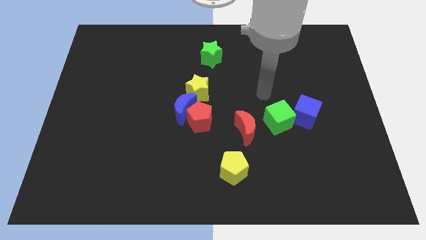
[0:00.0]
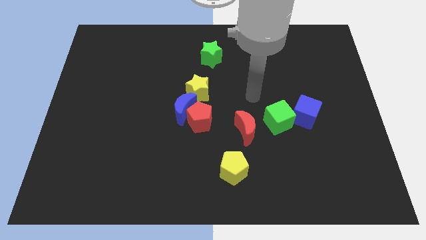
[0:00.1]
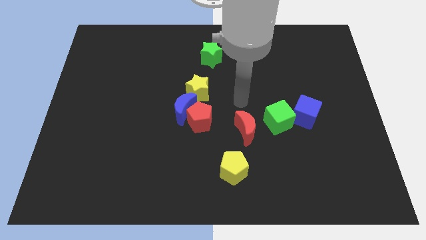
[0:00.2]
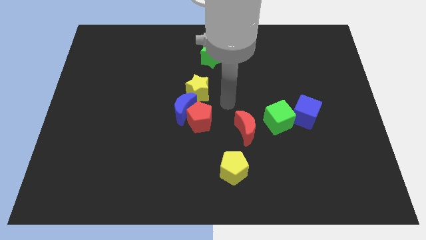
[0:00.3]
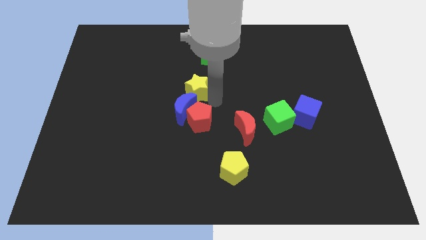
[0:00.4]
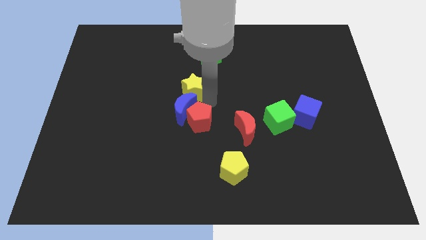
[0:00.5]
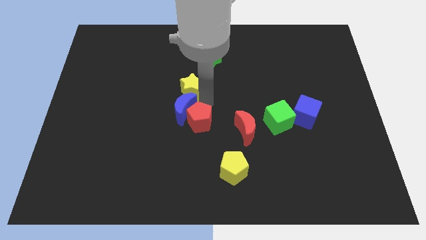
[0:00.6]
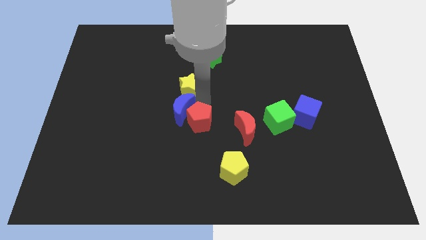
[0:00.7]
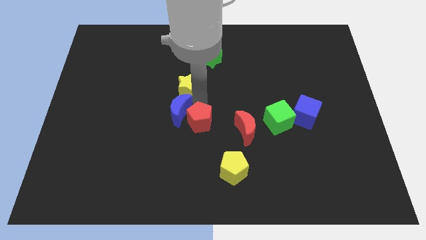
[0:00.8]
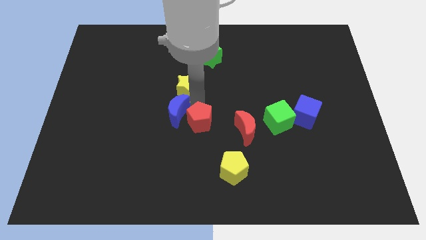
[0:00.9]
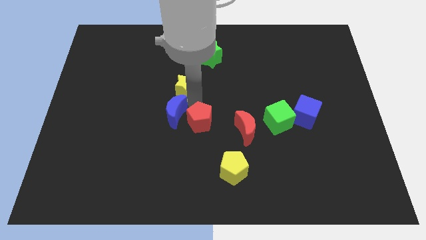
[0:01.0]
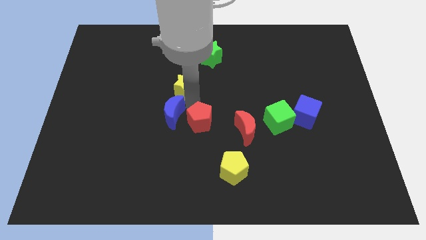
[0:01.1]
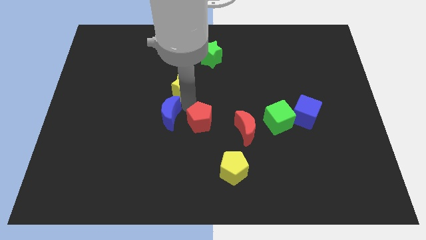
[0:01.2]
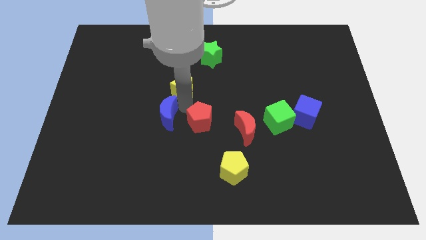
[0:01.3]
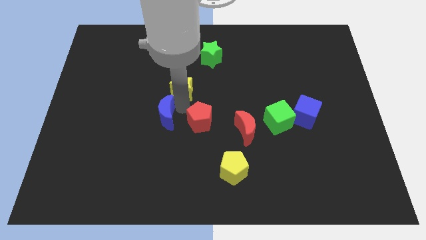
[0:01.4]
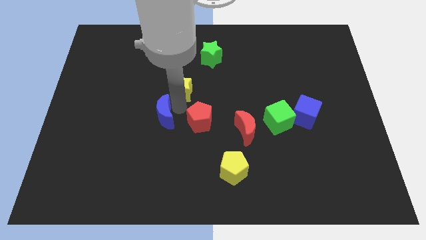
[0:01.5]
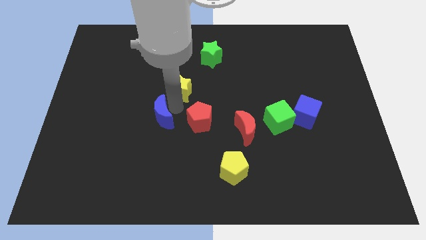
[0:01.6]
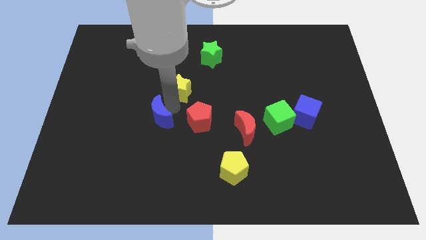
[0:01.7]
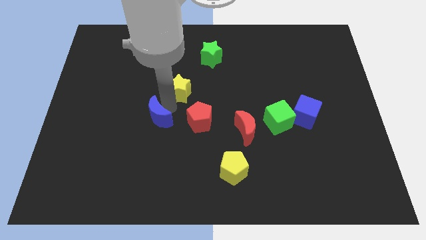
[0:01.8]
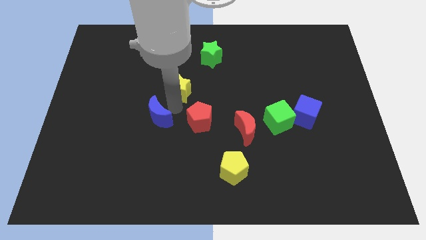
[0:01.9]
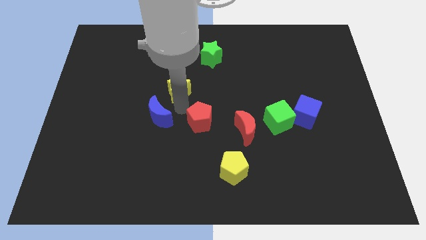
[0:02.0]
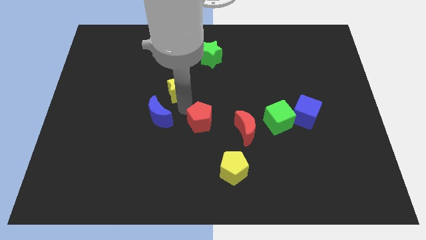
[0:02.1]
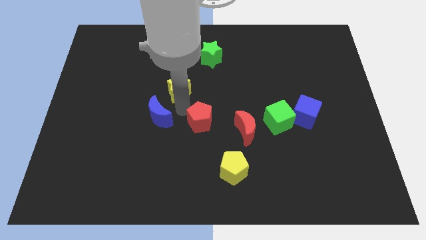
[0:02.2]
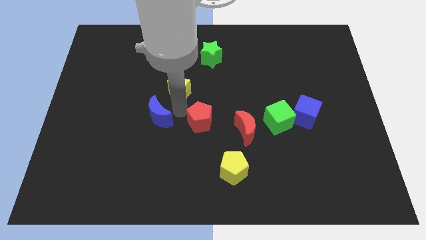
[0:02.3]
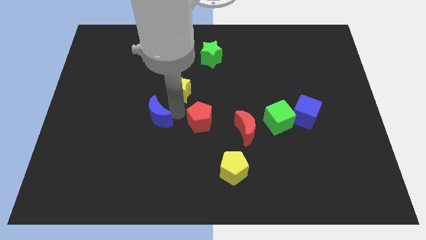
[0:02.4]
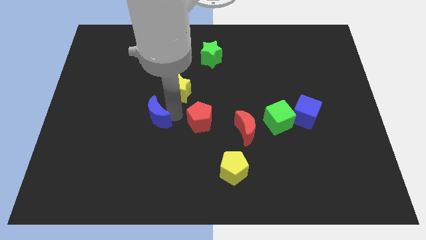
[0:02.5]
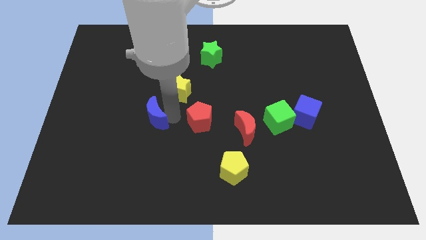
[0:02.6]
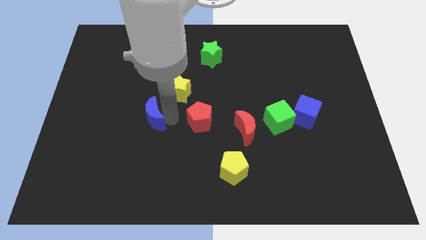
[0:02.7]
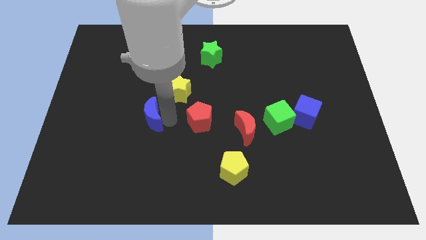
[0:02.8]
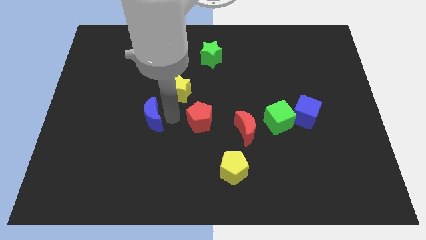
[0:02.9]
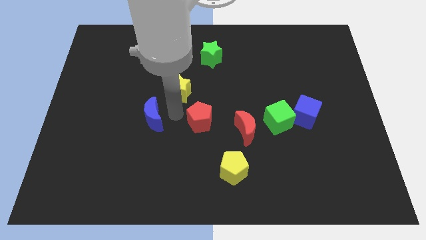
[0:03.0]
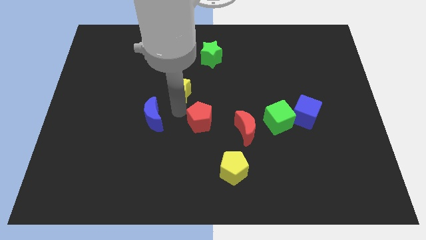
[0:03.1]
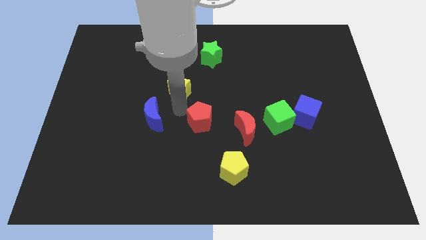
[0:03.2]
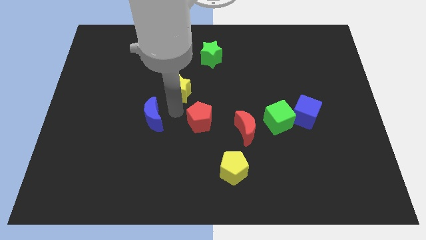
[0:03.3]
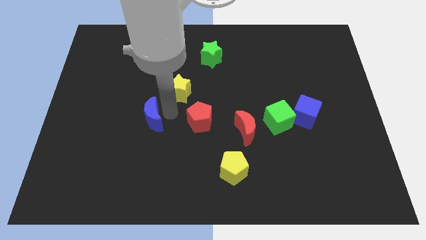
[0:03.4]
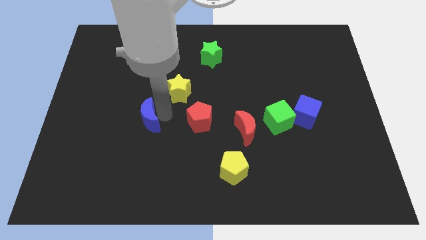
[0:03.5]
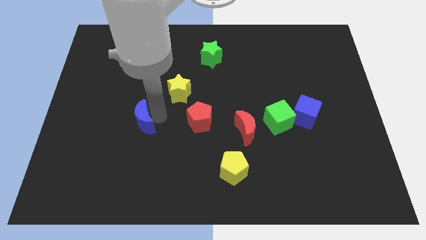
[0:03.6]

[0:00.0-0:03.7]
move the blue moon away from the red pentagon and yellow star

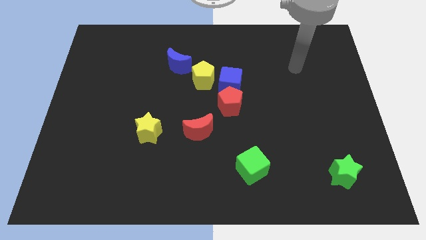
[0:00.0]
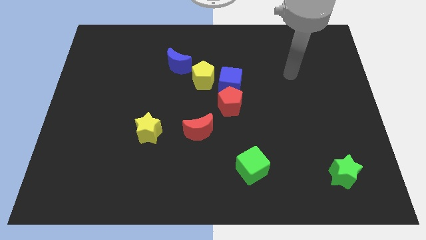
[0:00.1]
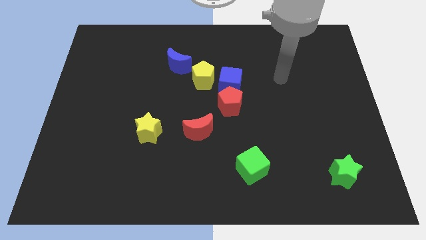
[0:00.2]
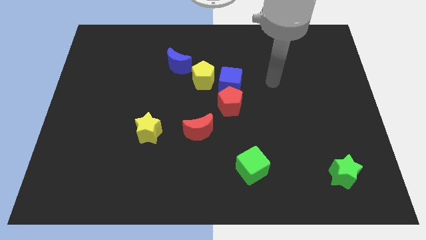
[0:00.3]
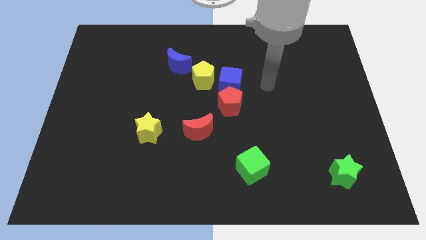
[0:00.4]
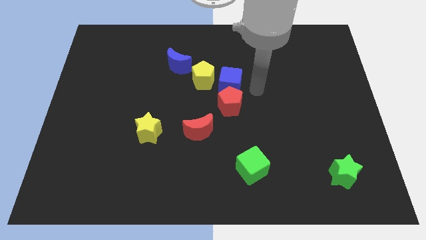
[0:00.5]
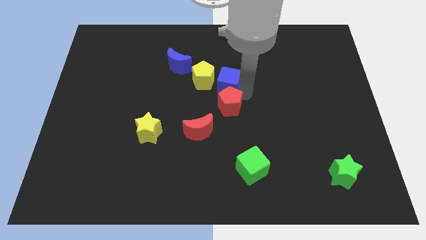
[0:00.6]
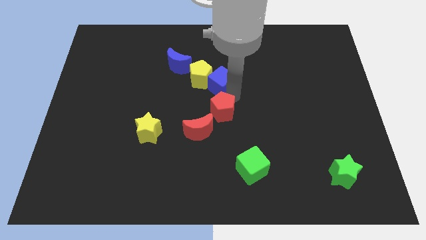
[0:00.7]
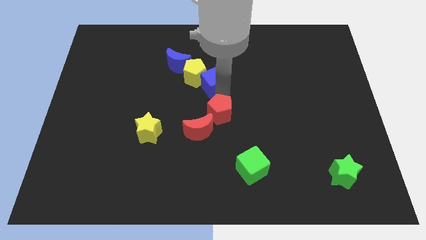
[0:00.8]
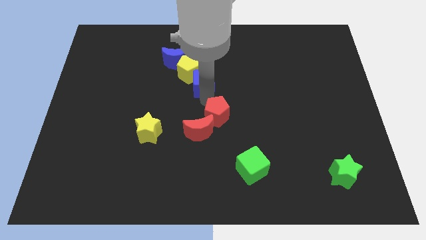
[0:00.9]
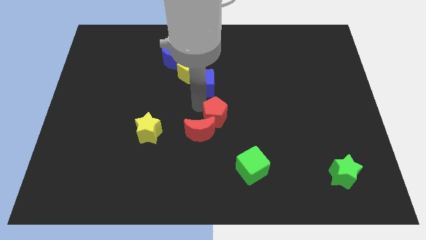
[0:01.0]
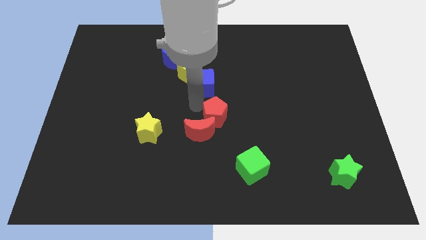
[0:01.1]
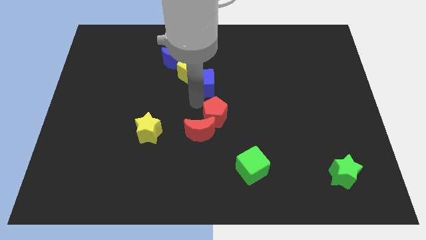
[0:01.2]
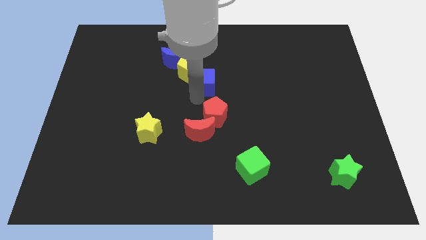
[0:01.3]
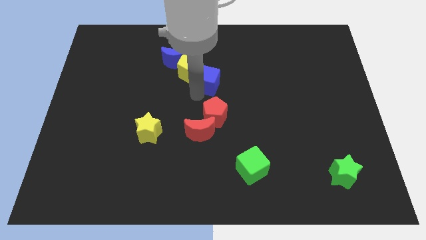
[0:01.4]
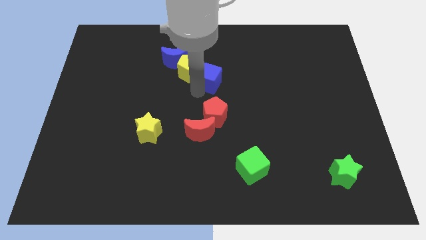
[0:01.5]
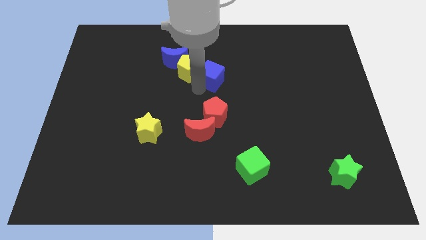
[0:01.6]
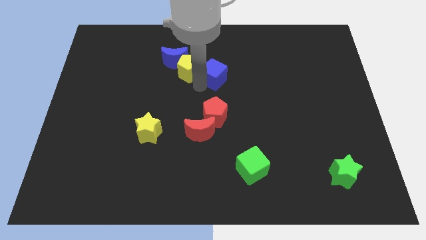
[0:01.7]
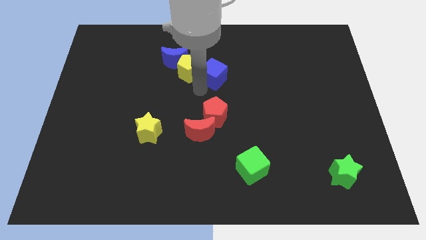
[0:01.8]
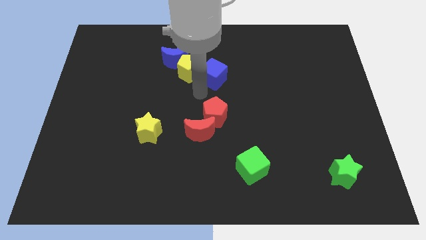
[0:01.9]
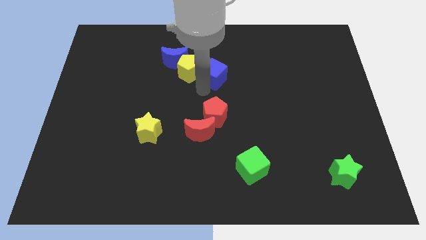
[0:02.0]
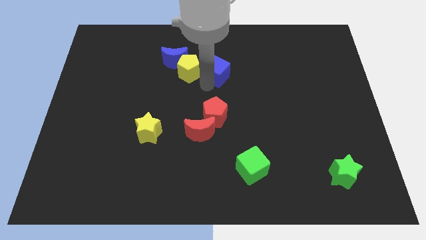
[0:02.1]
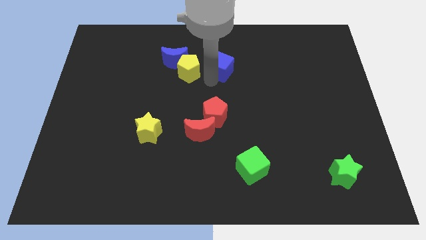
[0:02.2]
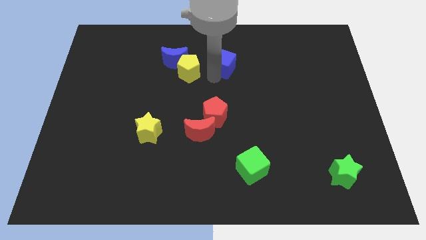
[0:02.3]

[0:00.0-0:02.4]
move the blue cube away from the red pentagon and yellow pentagon

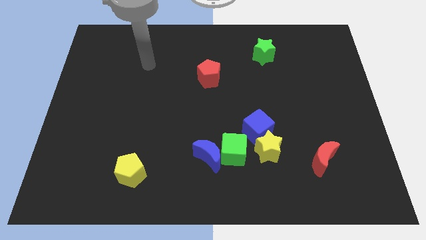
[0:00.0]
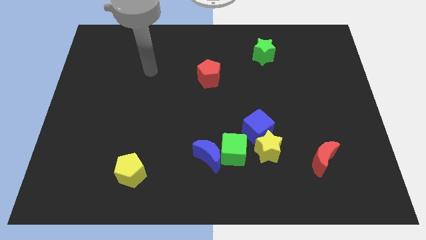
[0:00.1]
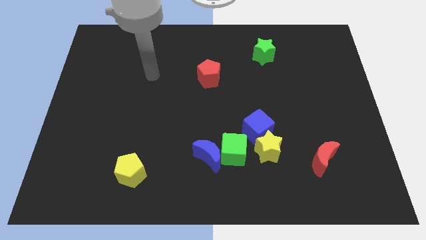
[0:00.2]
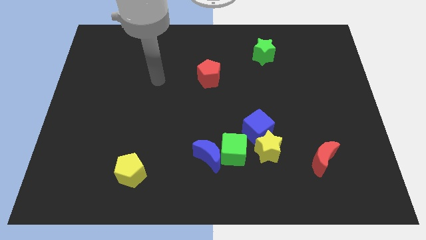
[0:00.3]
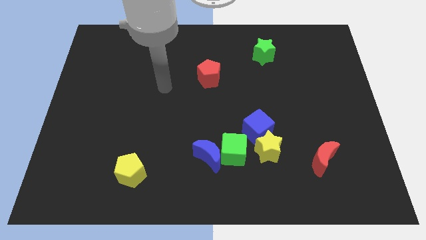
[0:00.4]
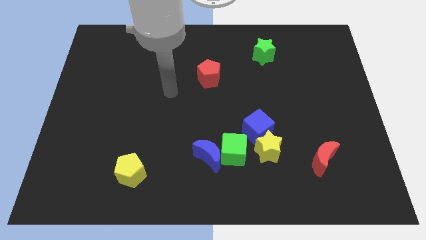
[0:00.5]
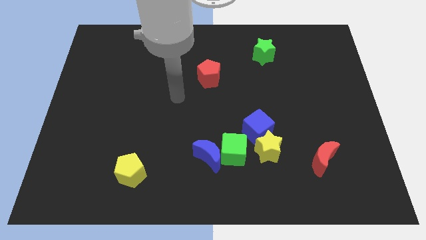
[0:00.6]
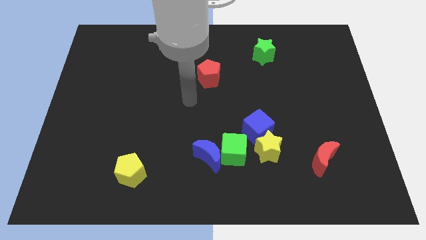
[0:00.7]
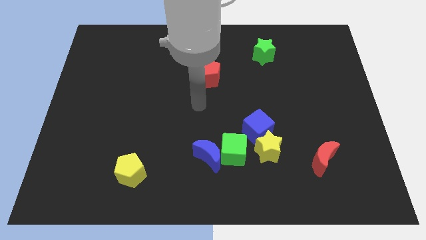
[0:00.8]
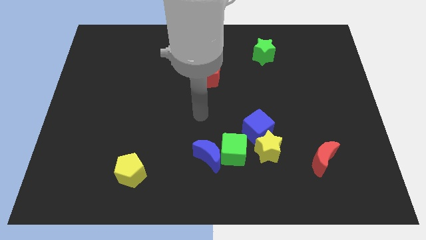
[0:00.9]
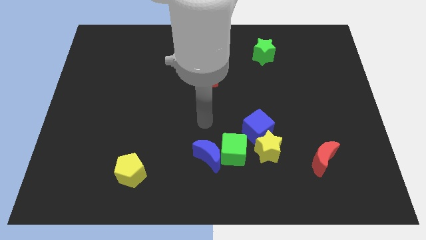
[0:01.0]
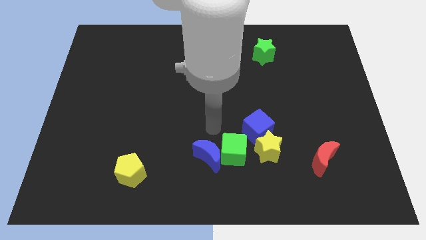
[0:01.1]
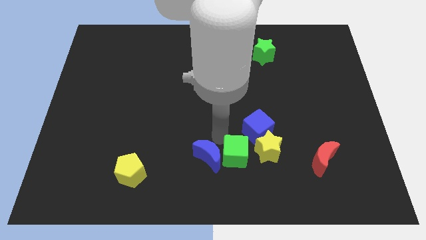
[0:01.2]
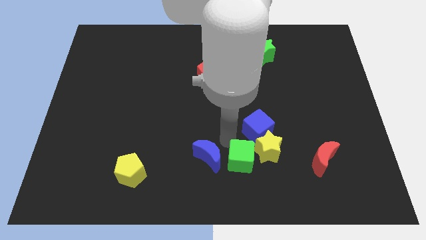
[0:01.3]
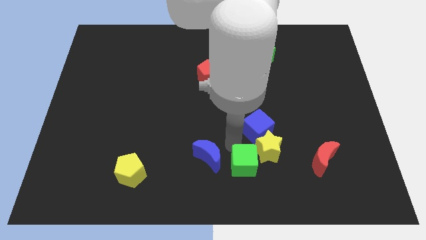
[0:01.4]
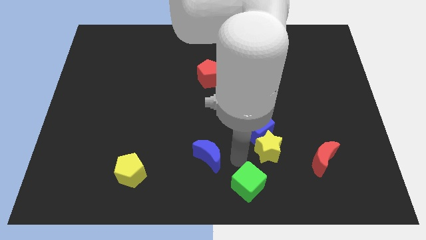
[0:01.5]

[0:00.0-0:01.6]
move the blue moon away from the green cube

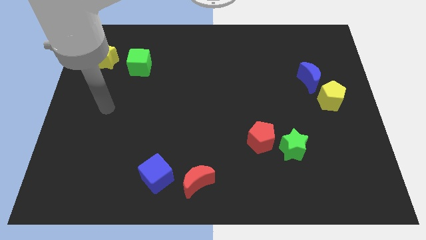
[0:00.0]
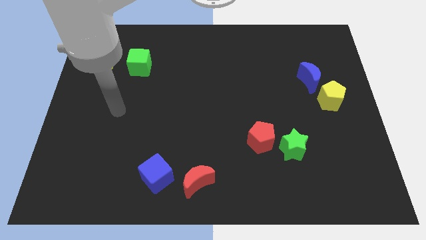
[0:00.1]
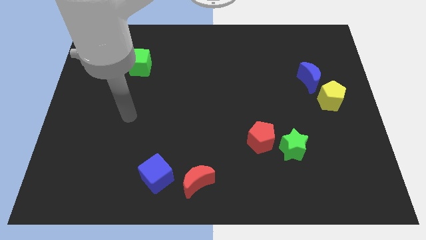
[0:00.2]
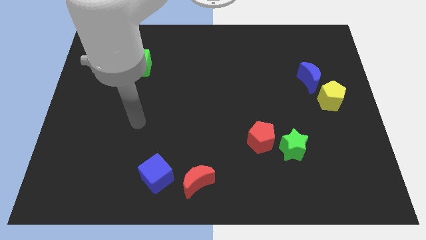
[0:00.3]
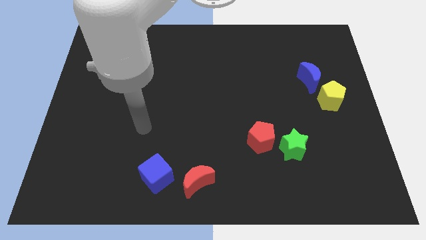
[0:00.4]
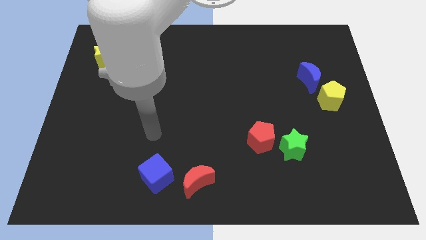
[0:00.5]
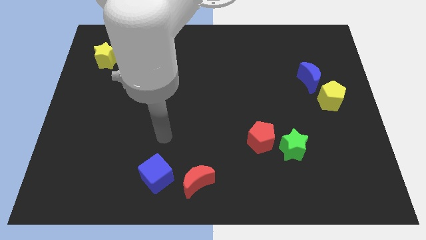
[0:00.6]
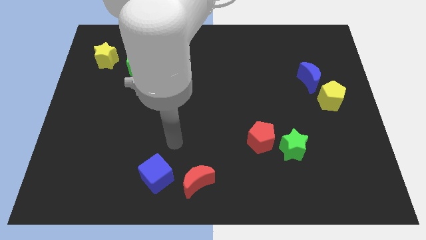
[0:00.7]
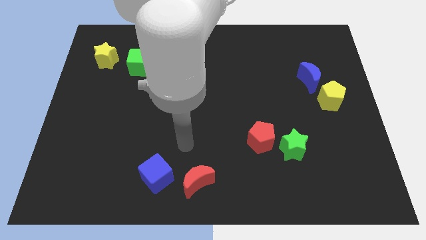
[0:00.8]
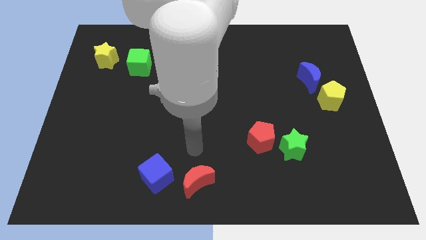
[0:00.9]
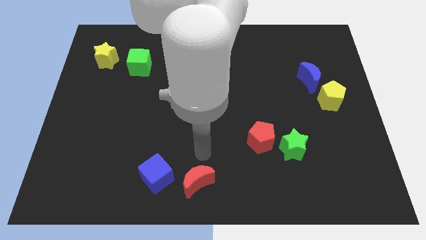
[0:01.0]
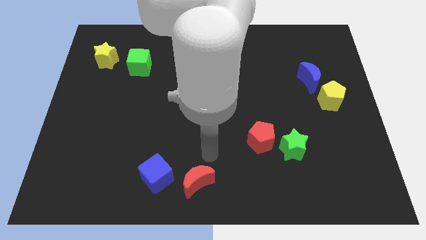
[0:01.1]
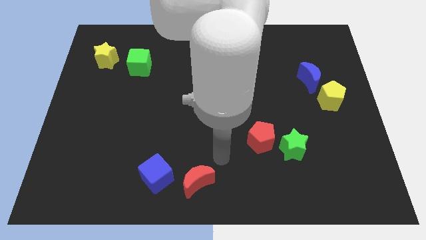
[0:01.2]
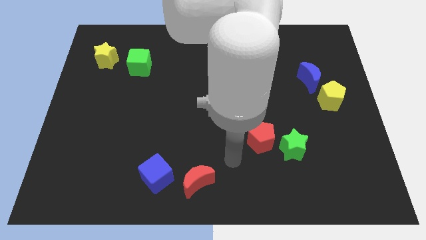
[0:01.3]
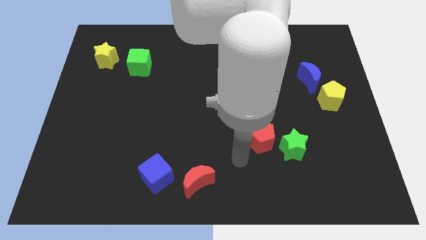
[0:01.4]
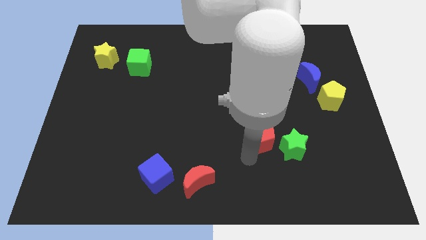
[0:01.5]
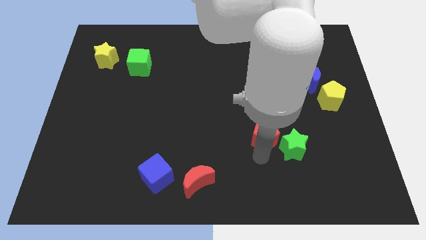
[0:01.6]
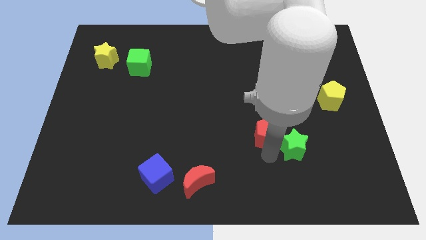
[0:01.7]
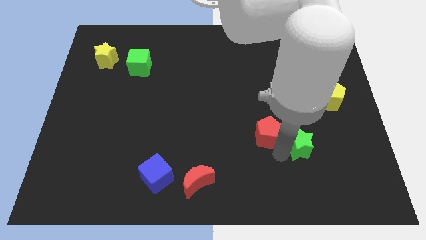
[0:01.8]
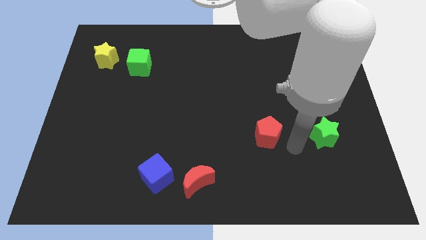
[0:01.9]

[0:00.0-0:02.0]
separate the red pentagon from the green star
